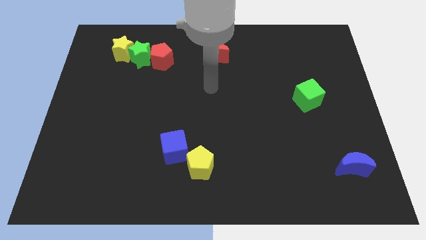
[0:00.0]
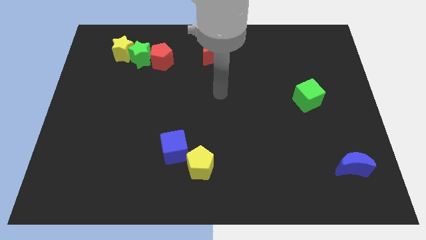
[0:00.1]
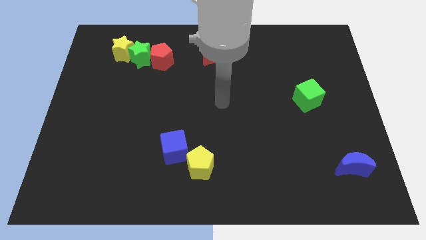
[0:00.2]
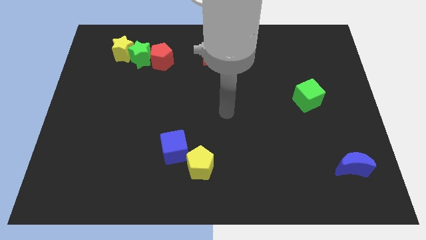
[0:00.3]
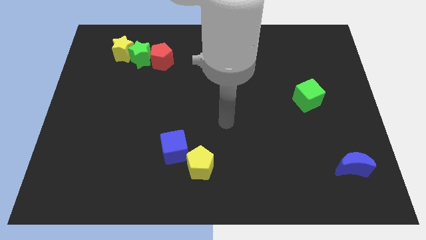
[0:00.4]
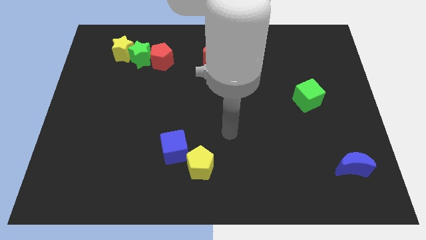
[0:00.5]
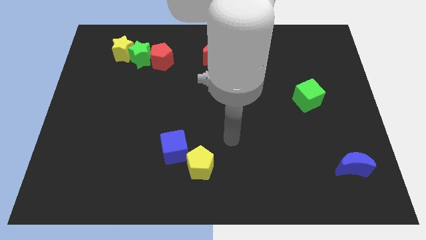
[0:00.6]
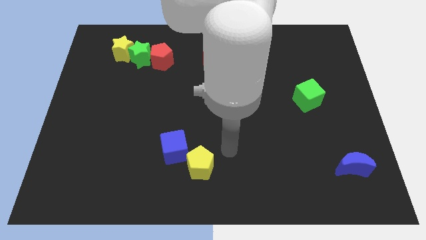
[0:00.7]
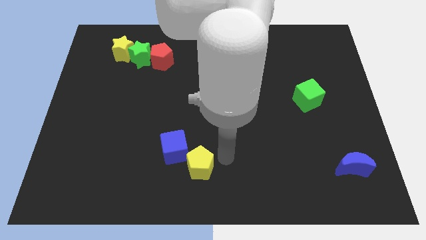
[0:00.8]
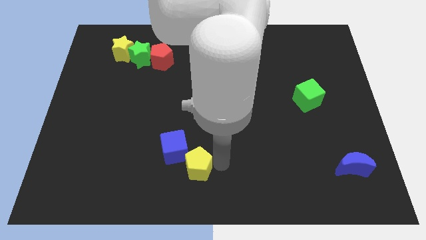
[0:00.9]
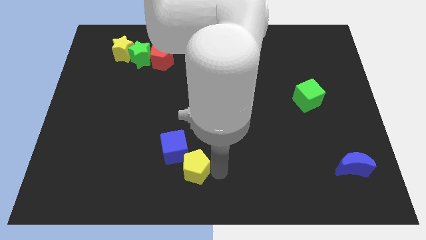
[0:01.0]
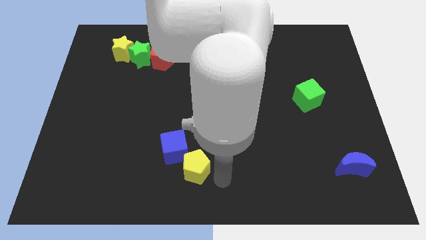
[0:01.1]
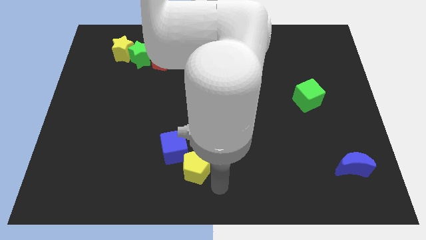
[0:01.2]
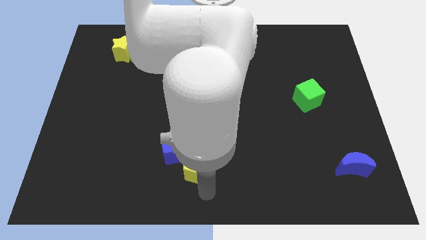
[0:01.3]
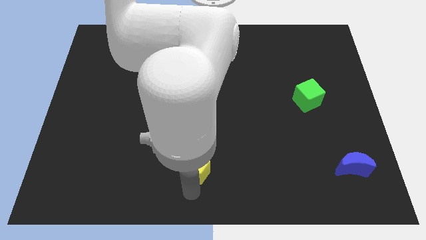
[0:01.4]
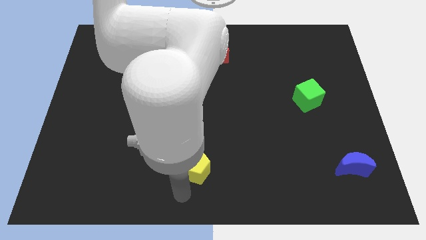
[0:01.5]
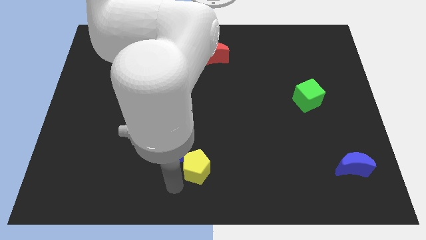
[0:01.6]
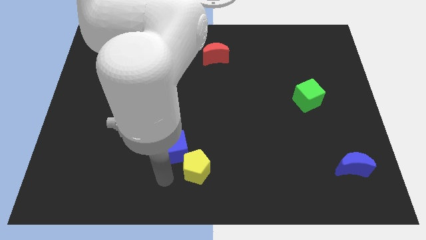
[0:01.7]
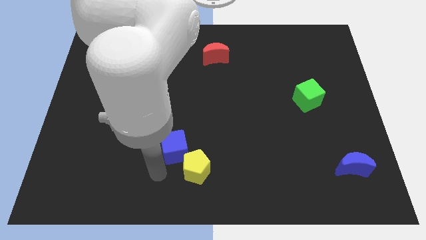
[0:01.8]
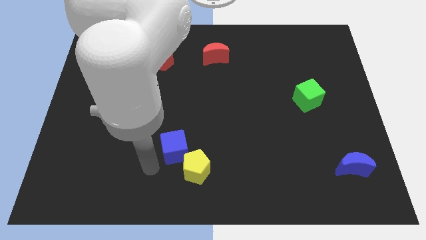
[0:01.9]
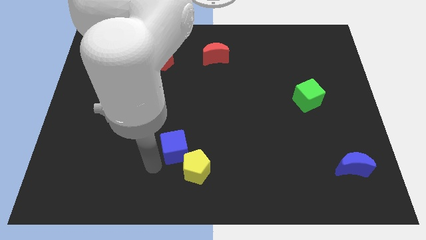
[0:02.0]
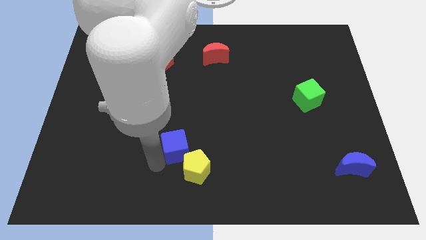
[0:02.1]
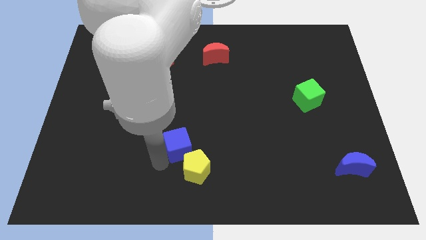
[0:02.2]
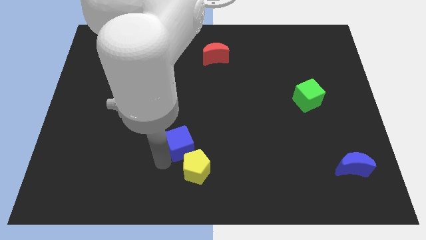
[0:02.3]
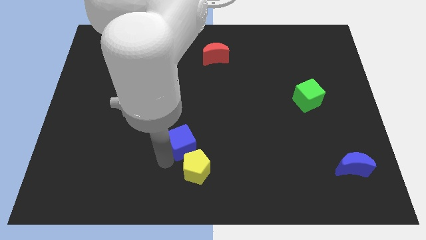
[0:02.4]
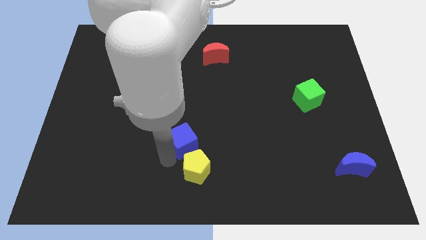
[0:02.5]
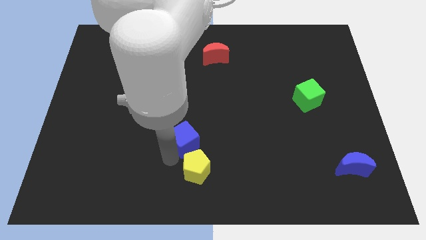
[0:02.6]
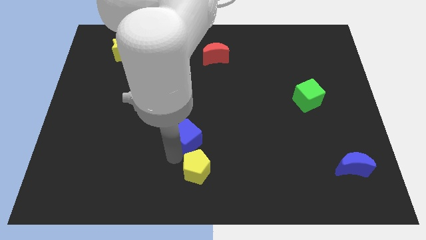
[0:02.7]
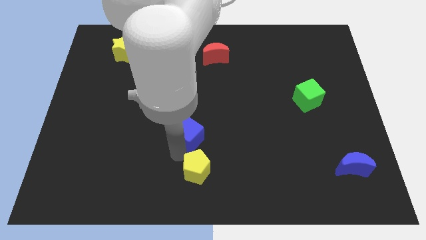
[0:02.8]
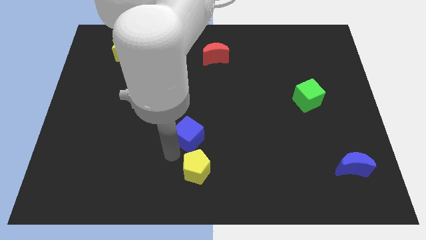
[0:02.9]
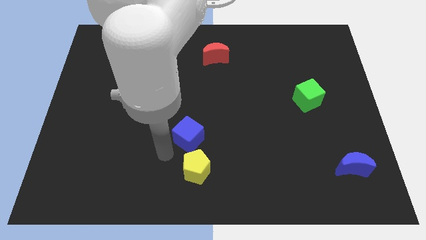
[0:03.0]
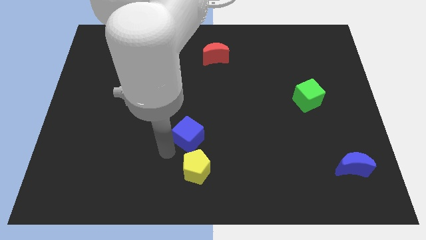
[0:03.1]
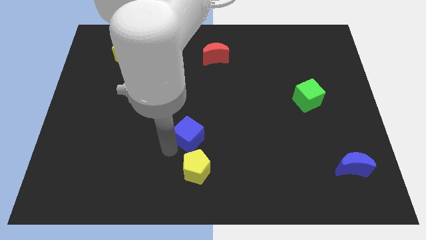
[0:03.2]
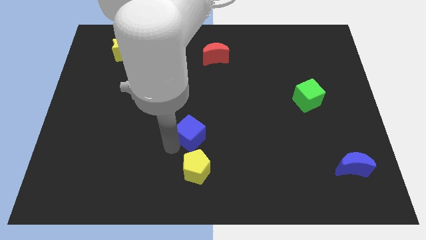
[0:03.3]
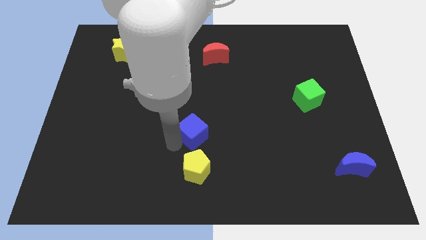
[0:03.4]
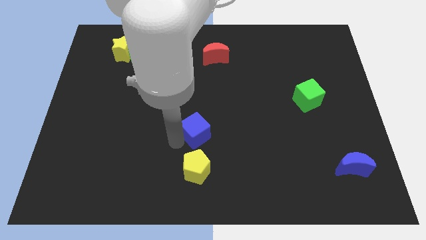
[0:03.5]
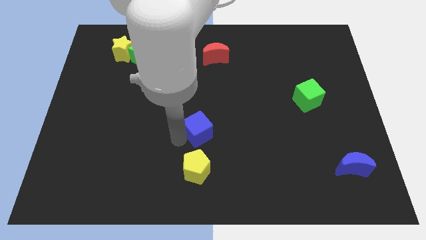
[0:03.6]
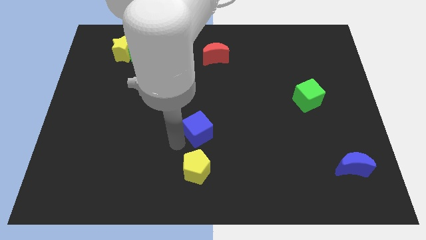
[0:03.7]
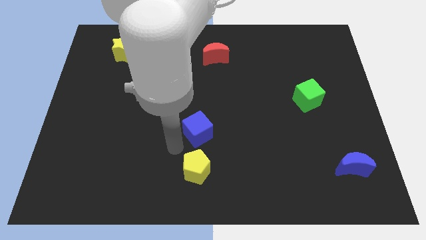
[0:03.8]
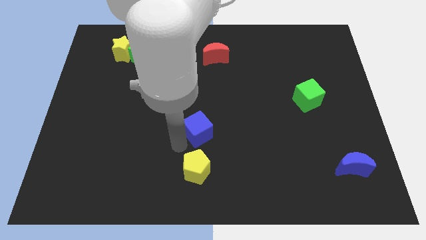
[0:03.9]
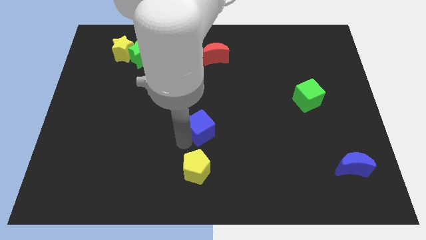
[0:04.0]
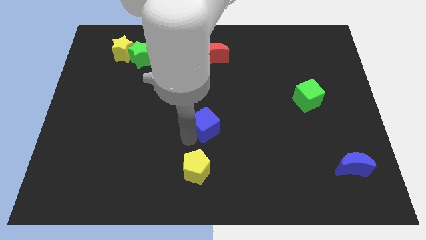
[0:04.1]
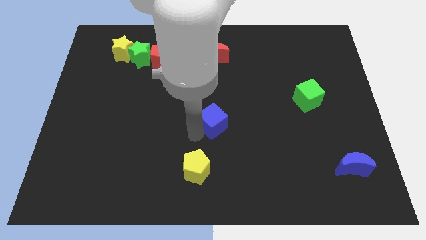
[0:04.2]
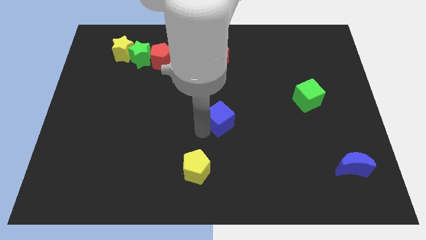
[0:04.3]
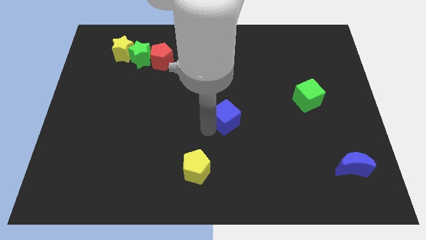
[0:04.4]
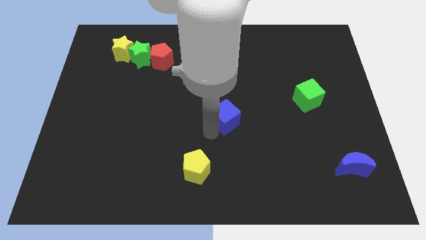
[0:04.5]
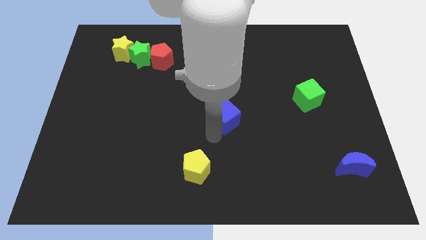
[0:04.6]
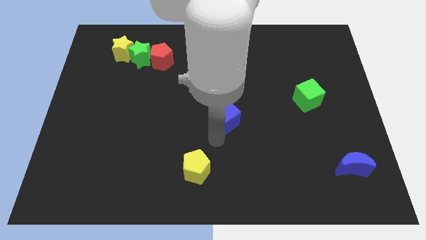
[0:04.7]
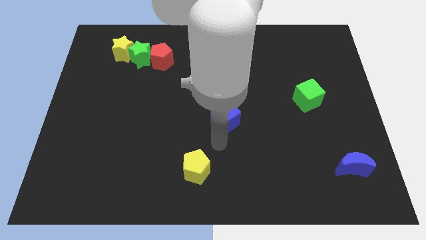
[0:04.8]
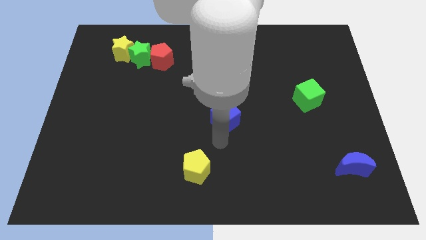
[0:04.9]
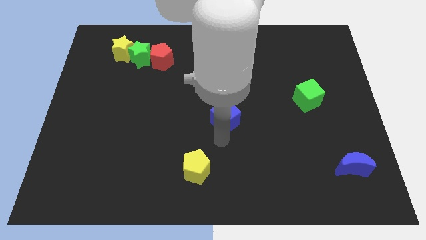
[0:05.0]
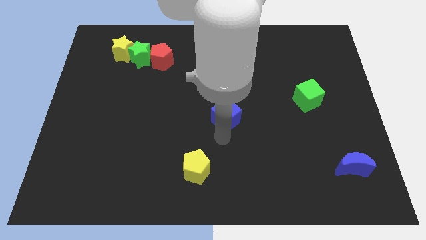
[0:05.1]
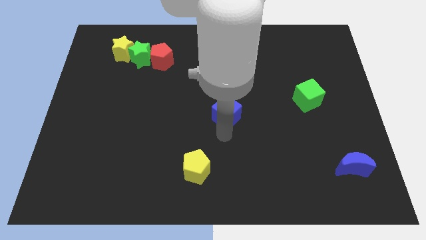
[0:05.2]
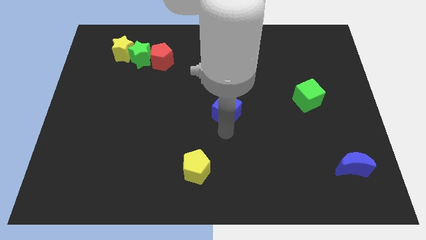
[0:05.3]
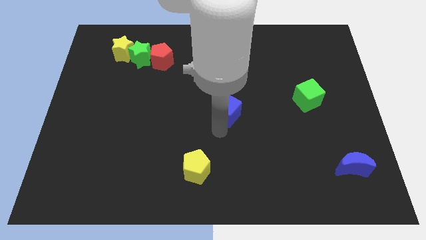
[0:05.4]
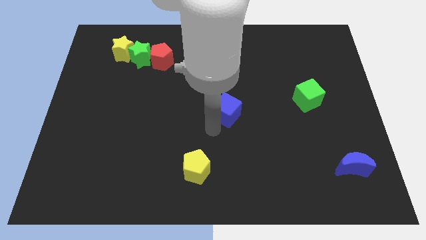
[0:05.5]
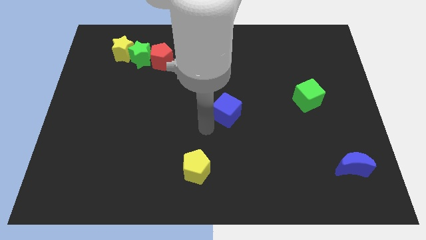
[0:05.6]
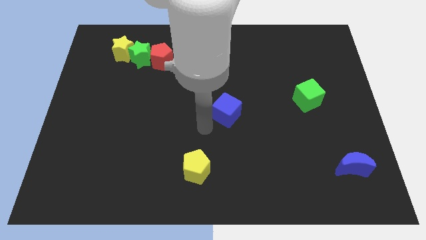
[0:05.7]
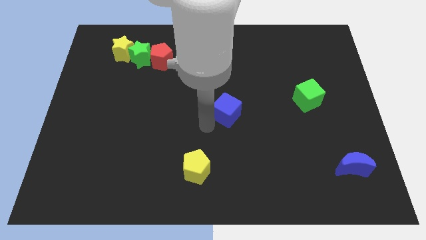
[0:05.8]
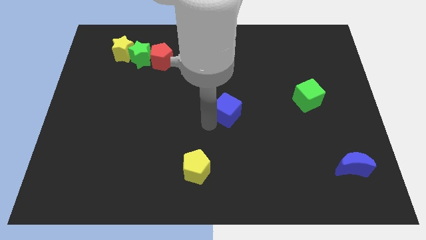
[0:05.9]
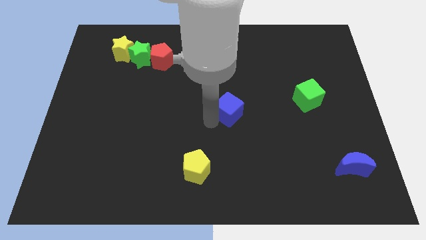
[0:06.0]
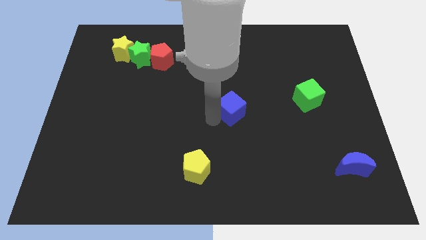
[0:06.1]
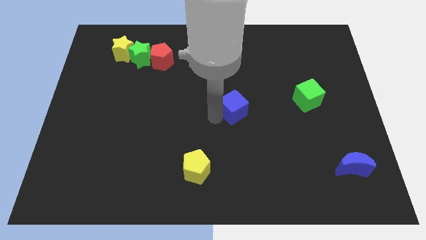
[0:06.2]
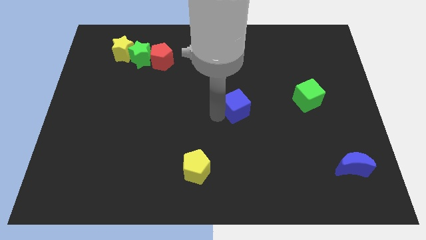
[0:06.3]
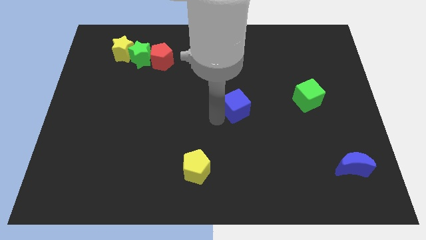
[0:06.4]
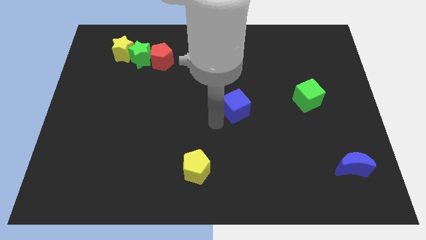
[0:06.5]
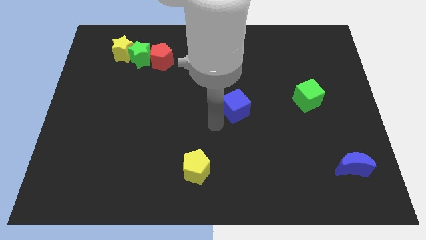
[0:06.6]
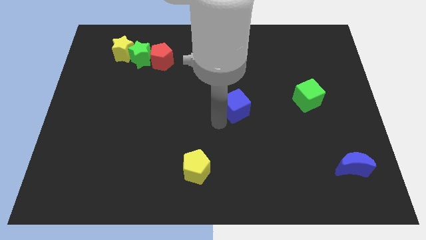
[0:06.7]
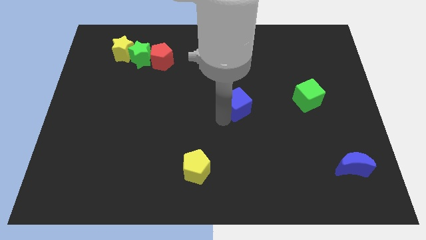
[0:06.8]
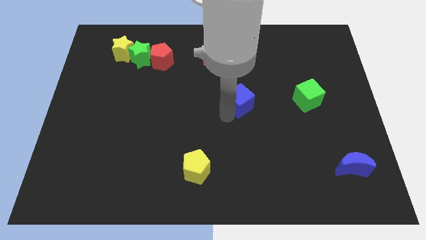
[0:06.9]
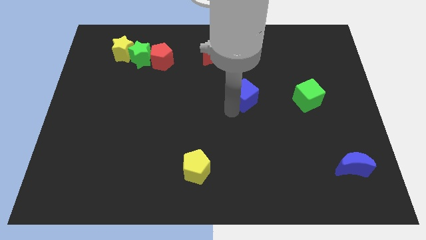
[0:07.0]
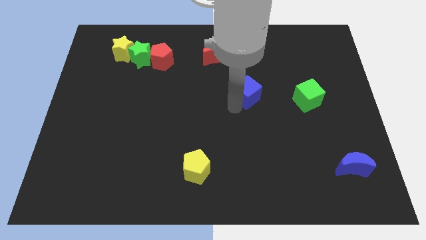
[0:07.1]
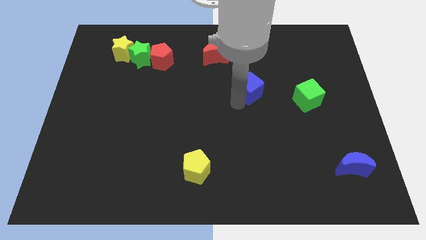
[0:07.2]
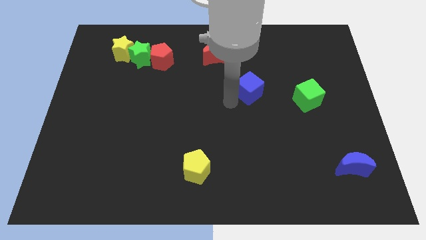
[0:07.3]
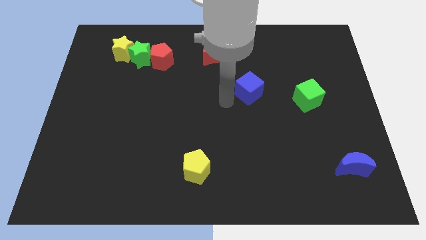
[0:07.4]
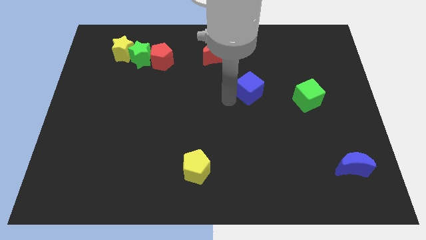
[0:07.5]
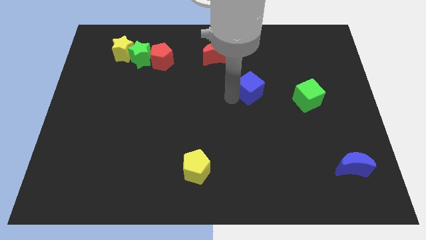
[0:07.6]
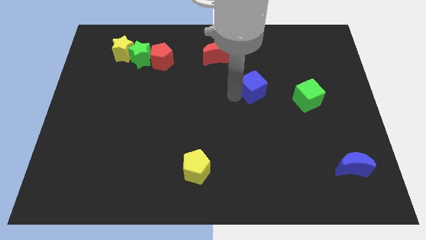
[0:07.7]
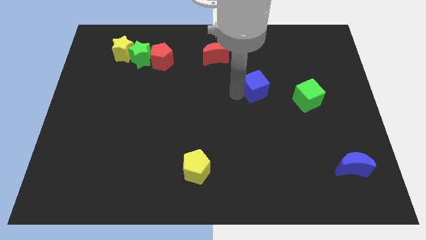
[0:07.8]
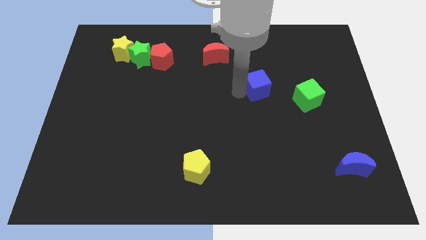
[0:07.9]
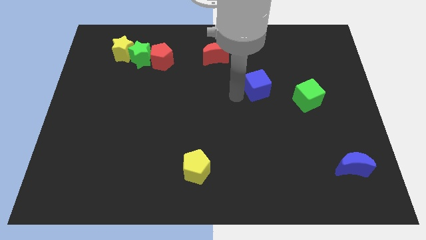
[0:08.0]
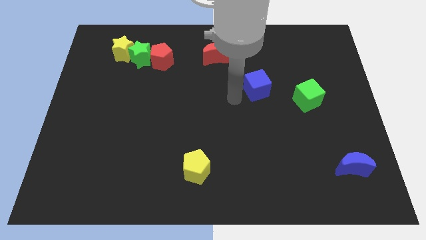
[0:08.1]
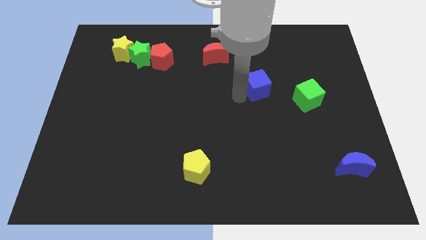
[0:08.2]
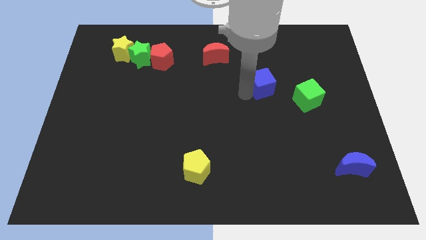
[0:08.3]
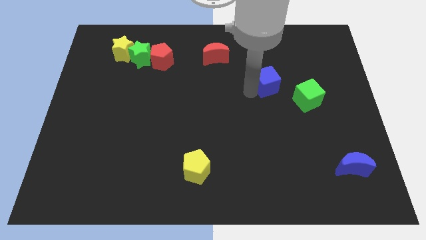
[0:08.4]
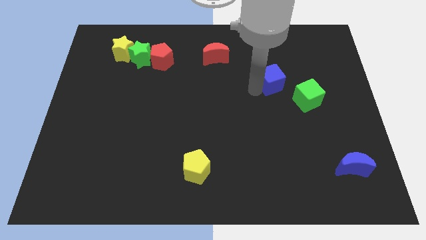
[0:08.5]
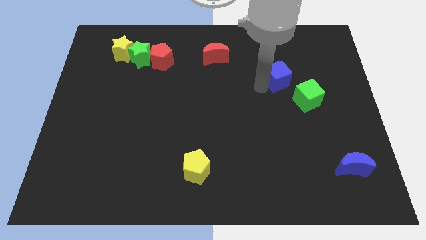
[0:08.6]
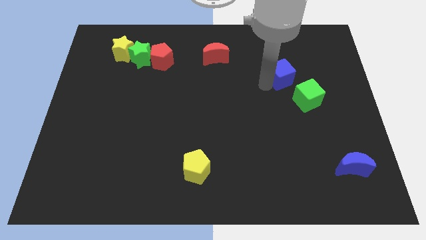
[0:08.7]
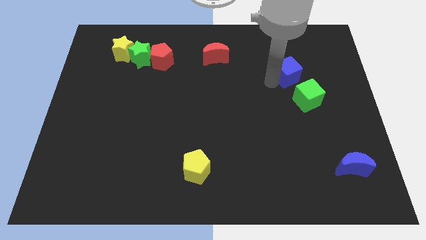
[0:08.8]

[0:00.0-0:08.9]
put the blue cube above the green cube
